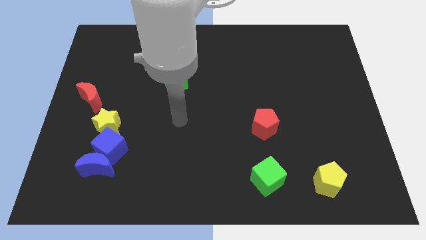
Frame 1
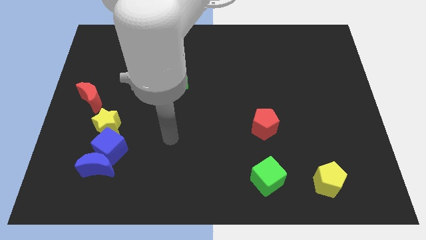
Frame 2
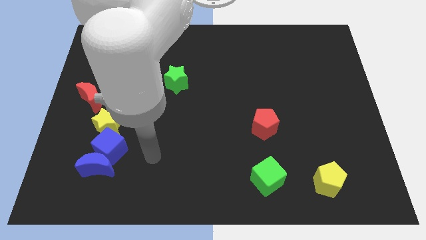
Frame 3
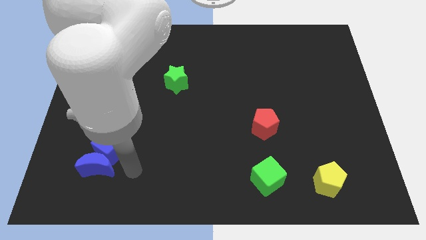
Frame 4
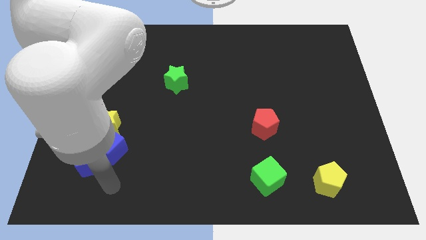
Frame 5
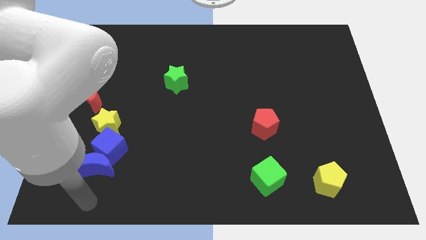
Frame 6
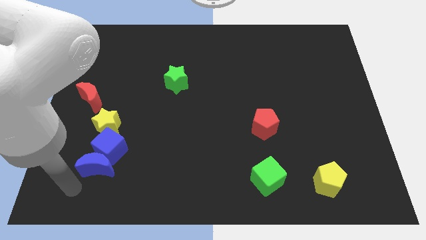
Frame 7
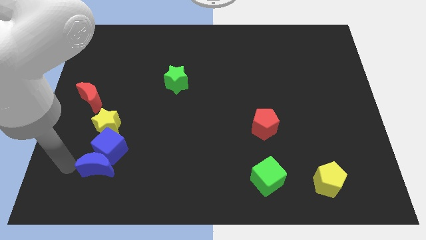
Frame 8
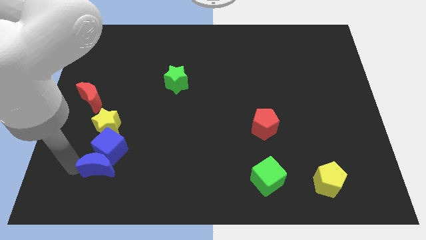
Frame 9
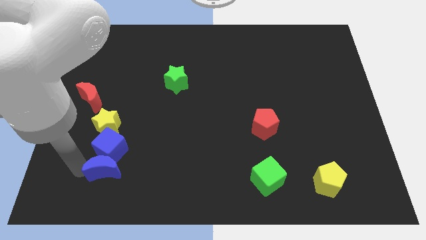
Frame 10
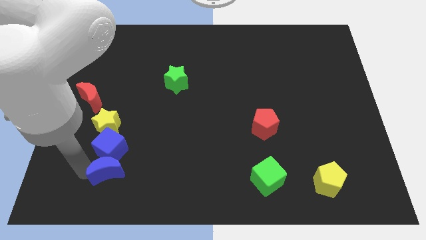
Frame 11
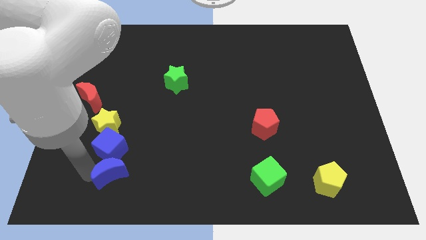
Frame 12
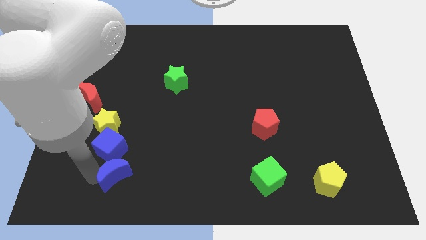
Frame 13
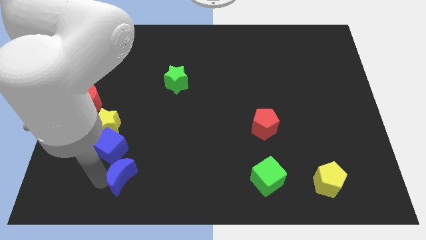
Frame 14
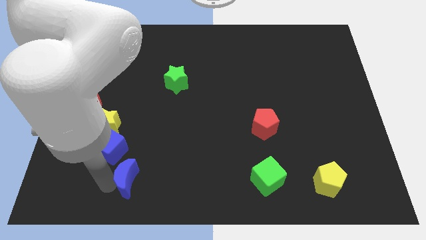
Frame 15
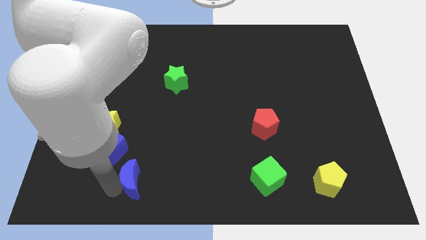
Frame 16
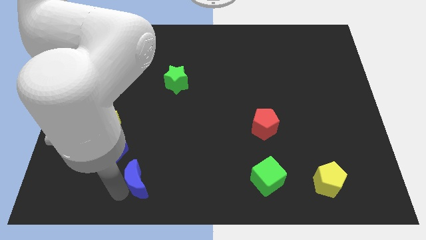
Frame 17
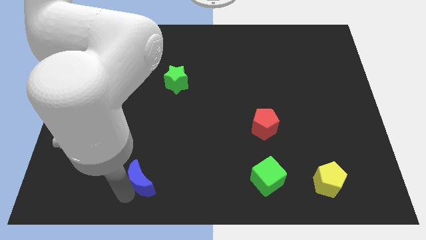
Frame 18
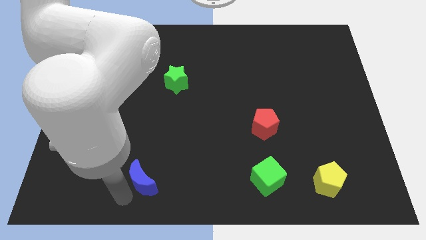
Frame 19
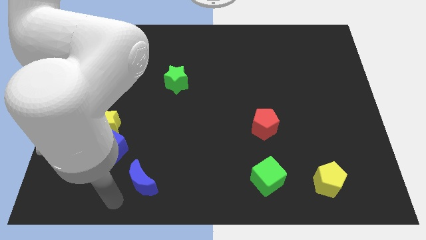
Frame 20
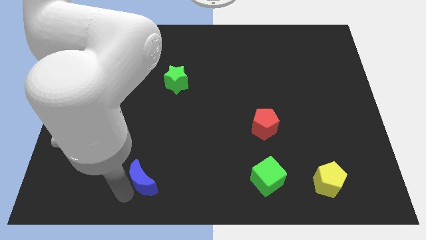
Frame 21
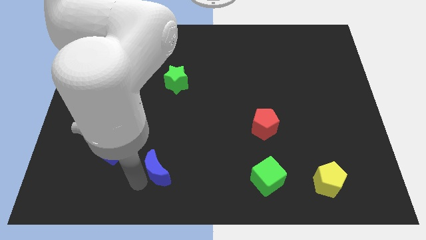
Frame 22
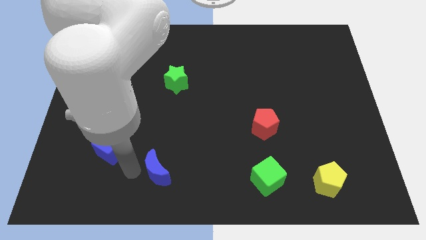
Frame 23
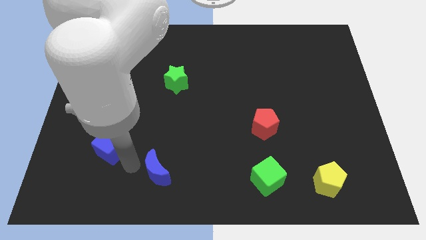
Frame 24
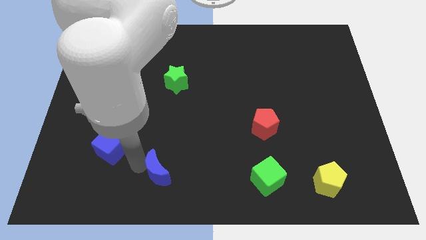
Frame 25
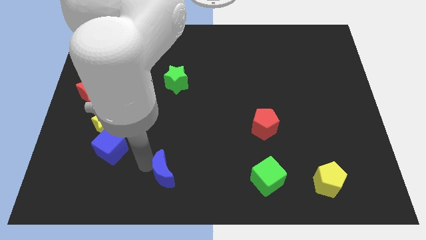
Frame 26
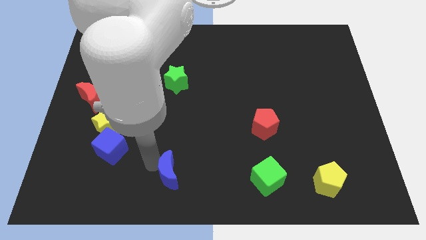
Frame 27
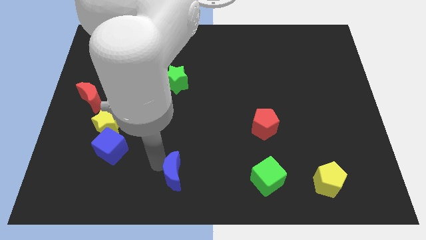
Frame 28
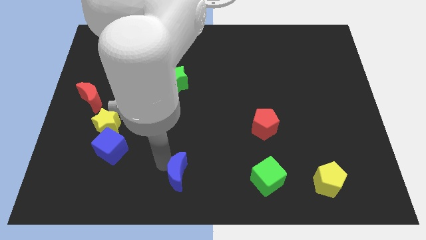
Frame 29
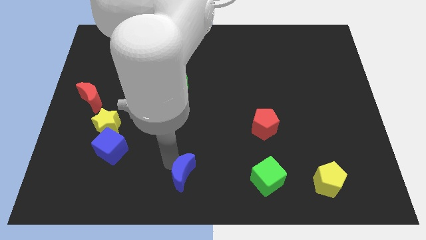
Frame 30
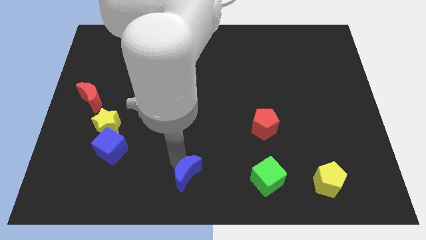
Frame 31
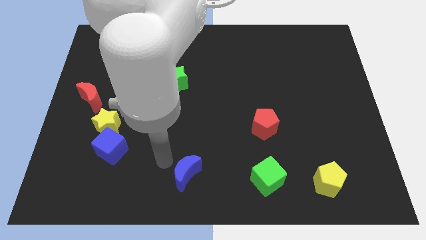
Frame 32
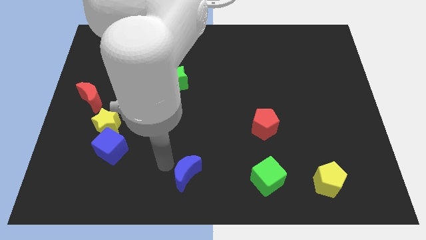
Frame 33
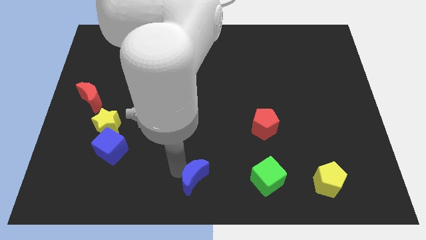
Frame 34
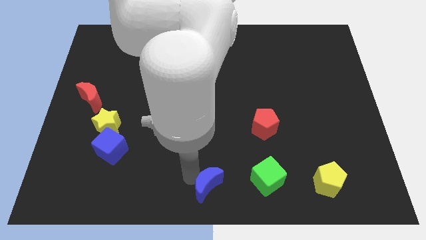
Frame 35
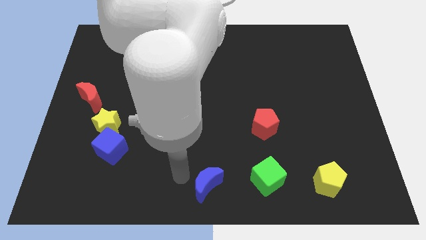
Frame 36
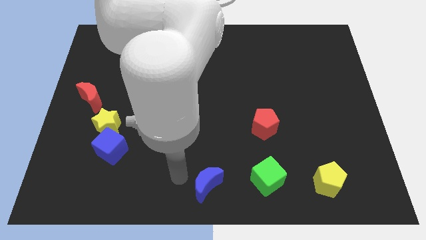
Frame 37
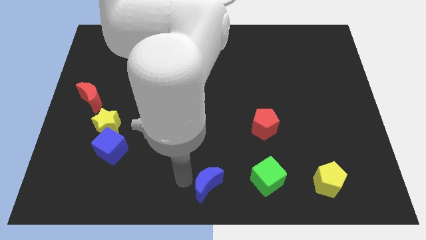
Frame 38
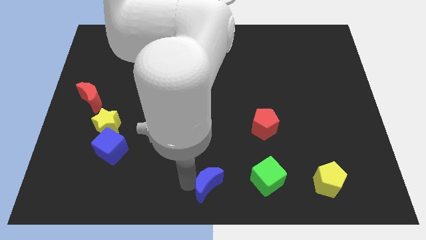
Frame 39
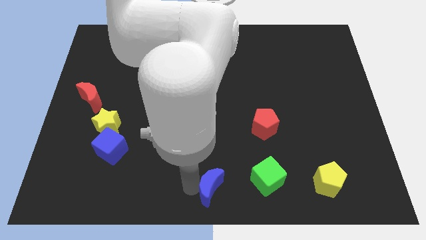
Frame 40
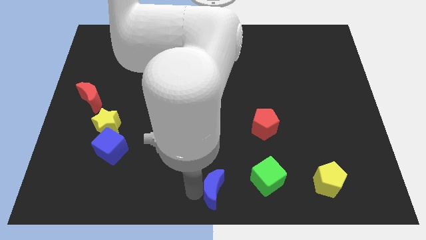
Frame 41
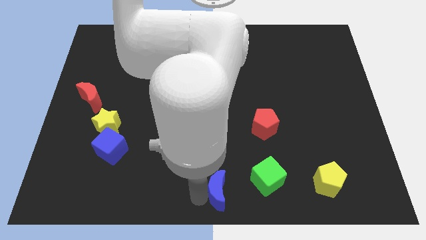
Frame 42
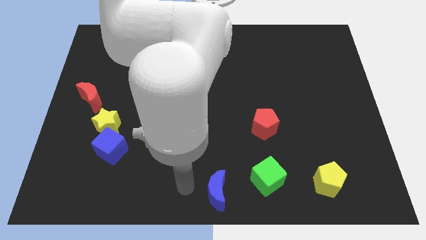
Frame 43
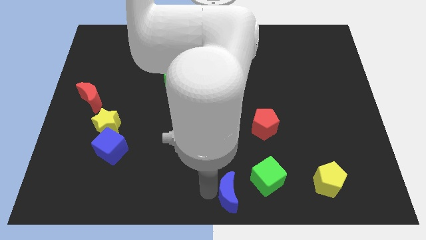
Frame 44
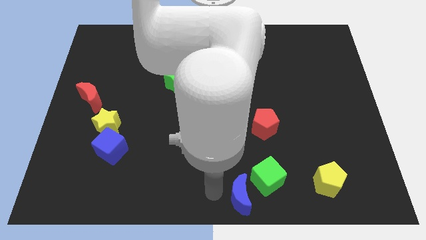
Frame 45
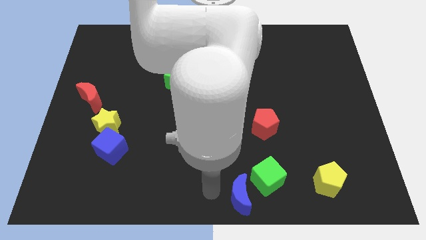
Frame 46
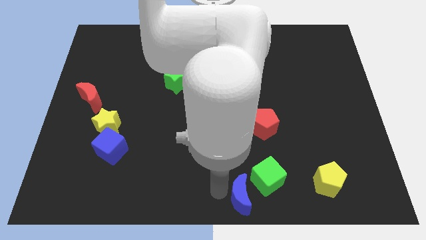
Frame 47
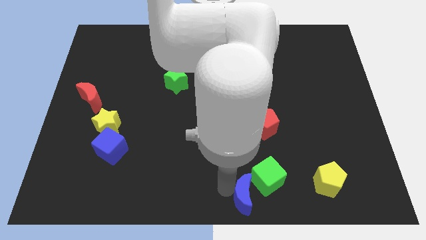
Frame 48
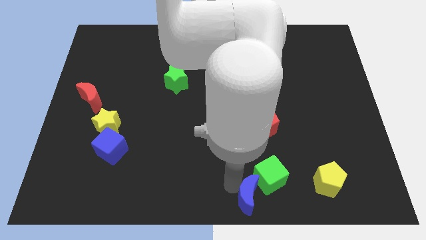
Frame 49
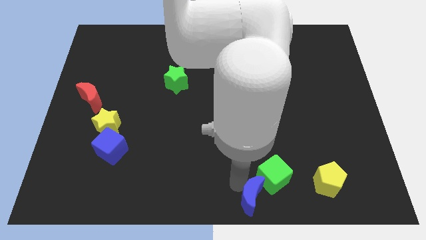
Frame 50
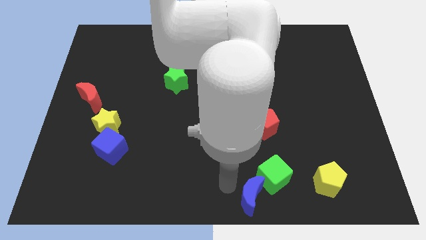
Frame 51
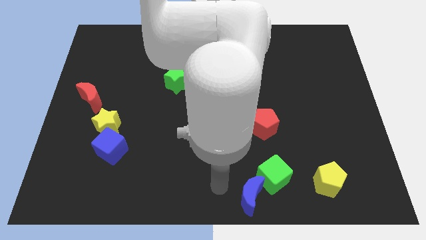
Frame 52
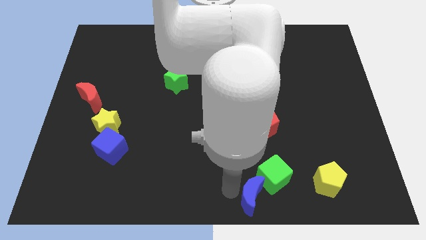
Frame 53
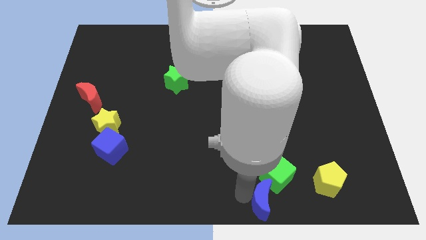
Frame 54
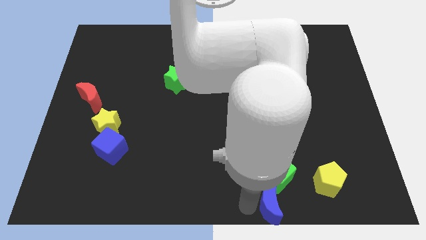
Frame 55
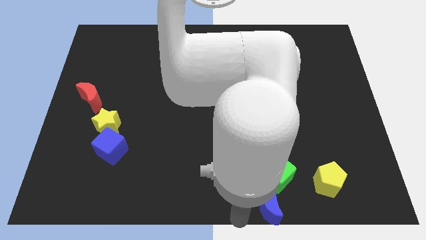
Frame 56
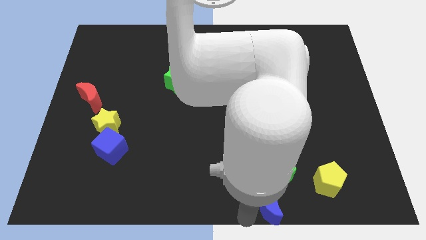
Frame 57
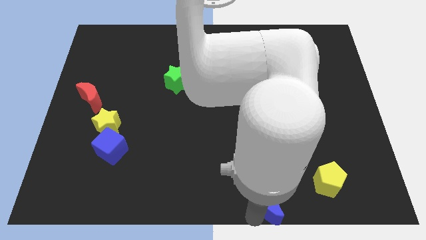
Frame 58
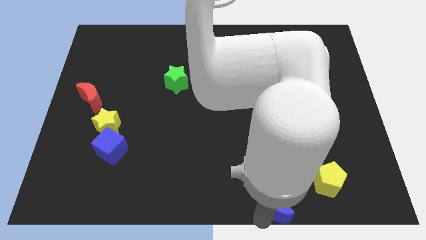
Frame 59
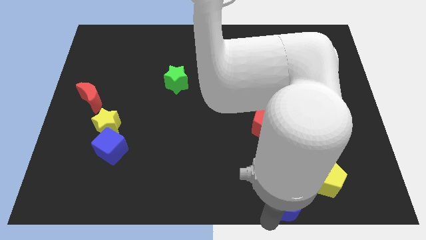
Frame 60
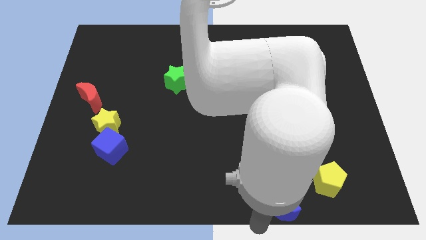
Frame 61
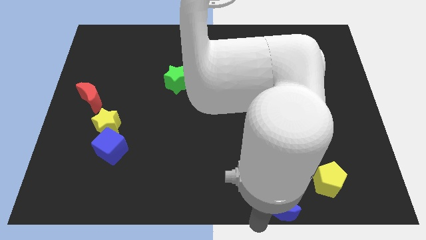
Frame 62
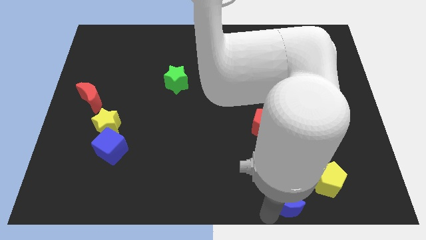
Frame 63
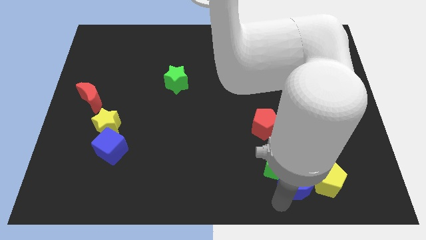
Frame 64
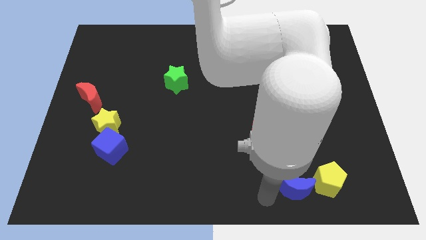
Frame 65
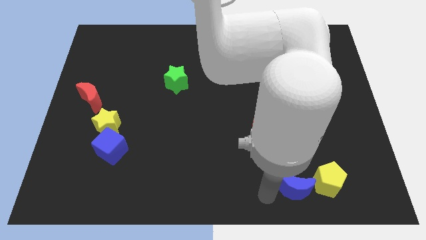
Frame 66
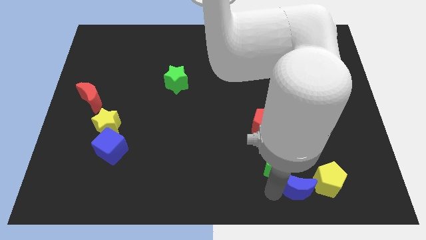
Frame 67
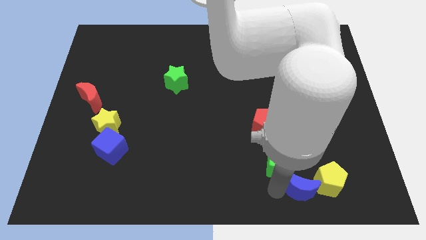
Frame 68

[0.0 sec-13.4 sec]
push the blue moon close to the yellow pentagon
